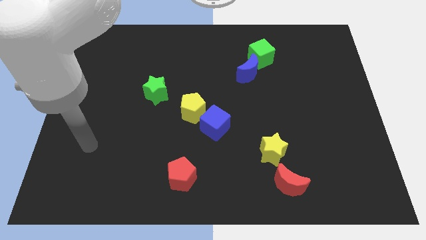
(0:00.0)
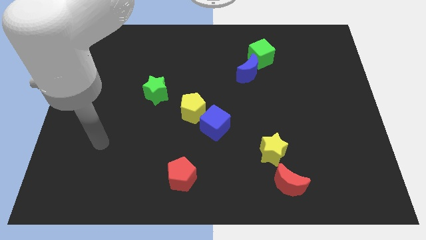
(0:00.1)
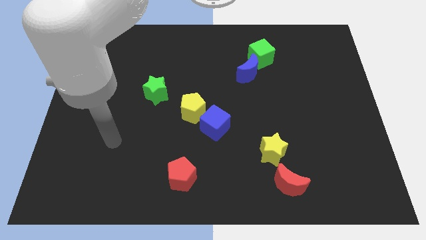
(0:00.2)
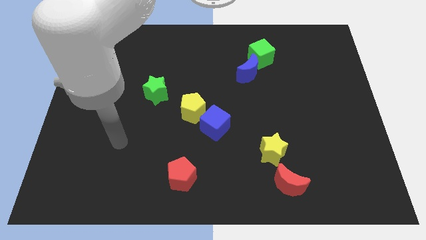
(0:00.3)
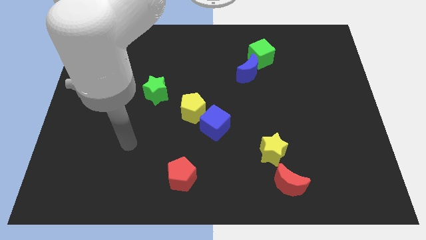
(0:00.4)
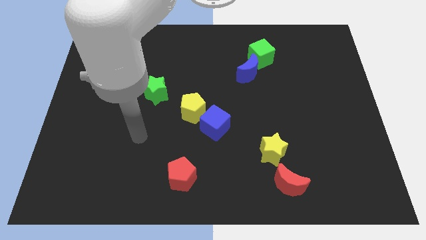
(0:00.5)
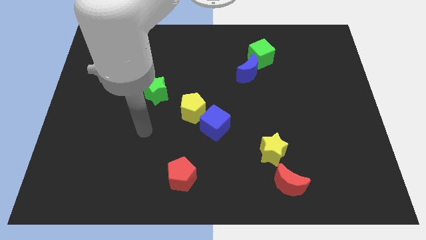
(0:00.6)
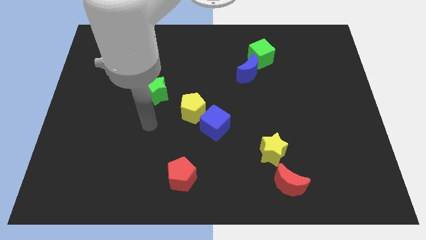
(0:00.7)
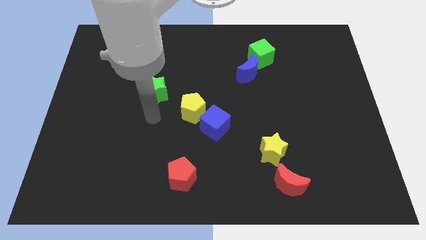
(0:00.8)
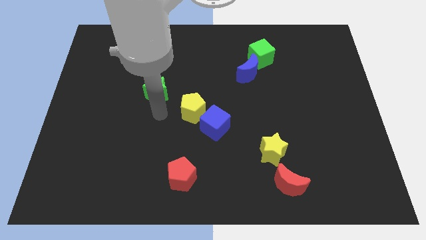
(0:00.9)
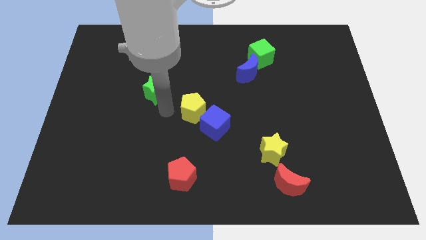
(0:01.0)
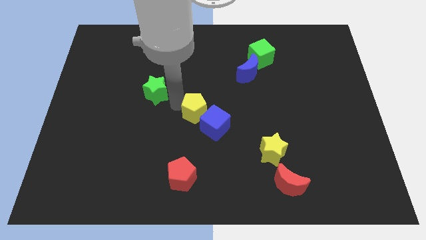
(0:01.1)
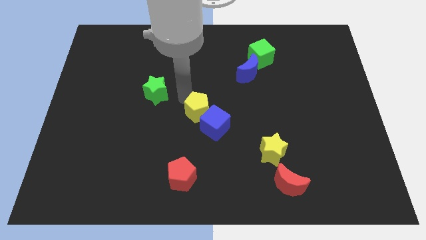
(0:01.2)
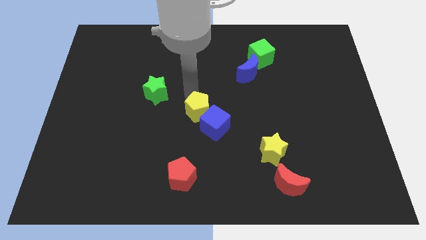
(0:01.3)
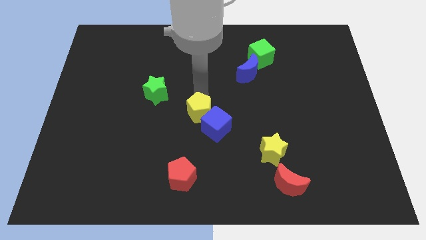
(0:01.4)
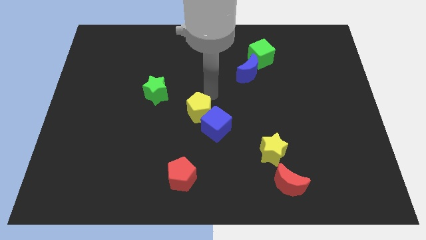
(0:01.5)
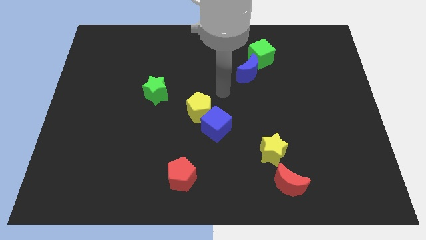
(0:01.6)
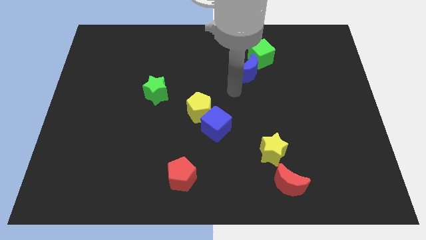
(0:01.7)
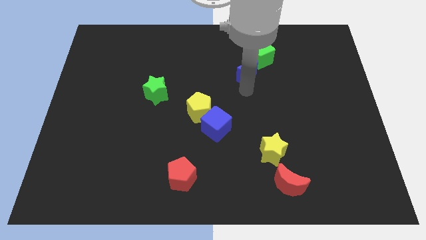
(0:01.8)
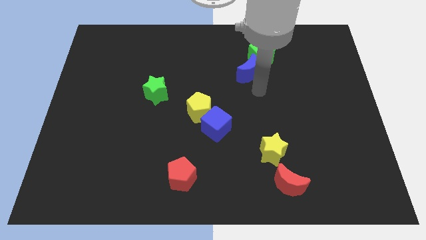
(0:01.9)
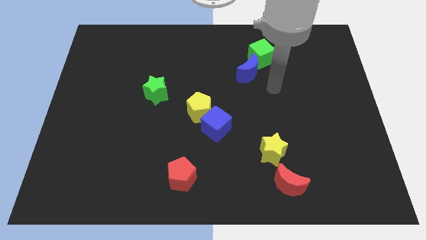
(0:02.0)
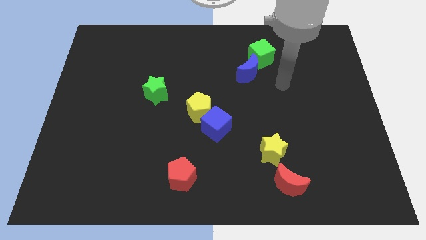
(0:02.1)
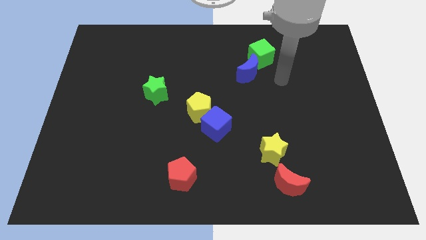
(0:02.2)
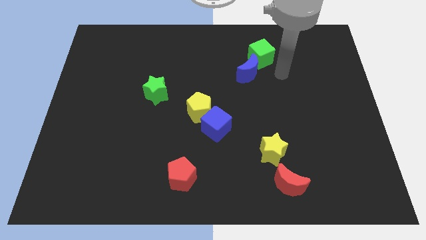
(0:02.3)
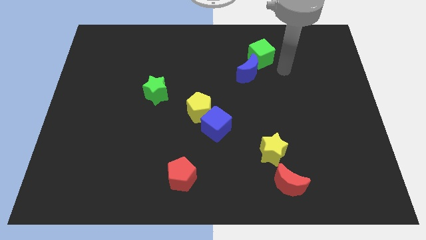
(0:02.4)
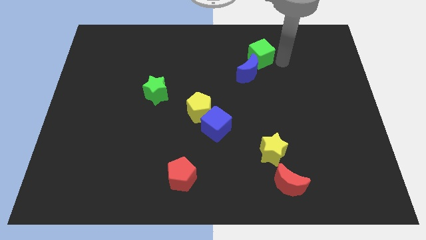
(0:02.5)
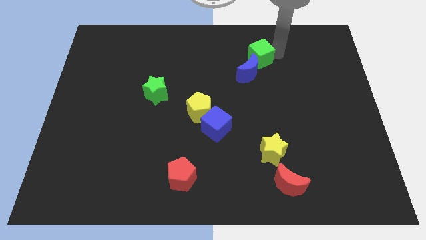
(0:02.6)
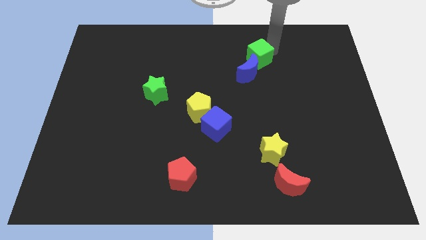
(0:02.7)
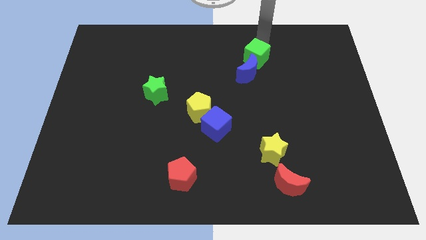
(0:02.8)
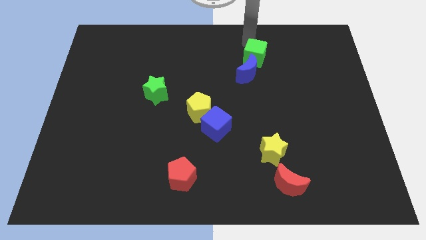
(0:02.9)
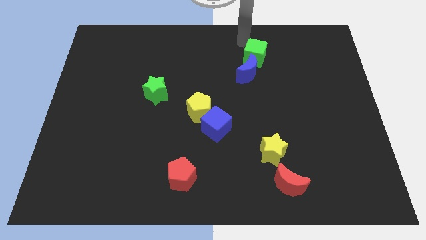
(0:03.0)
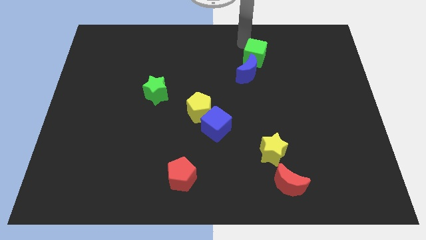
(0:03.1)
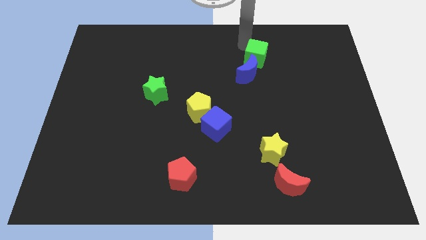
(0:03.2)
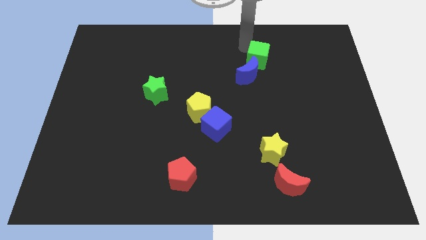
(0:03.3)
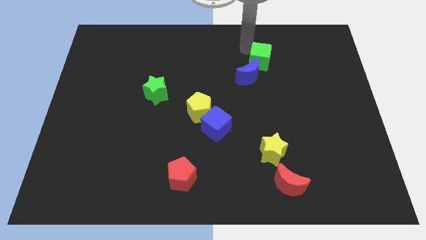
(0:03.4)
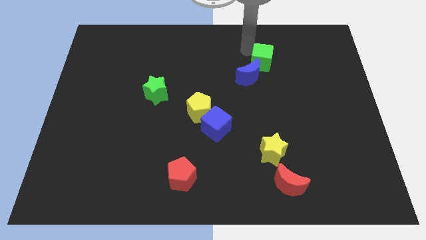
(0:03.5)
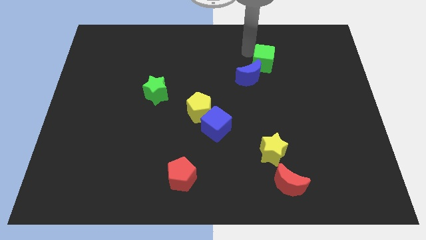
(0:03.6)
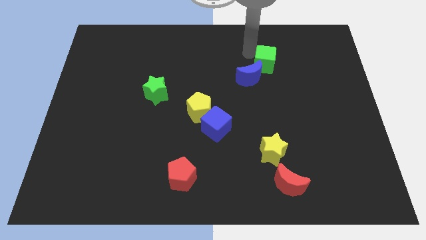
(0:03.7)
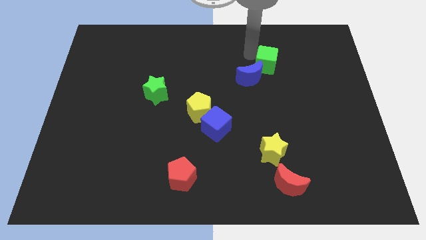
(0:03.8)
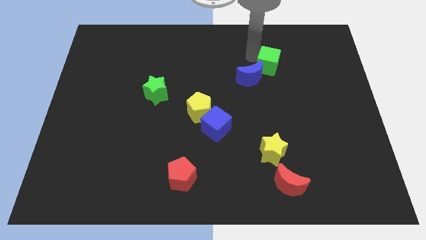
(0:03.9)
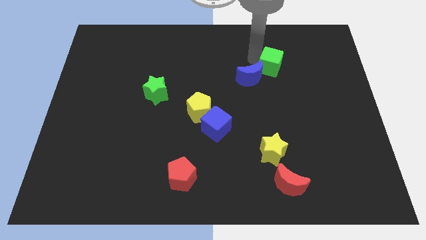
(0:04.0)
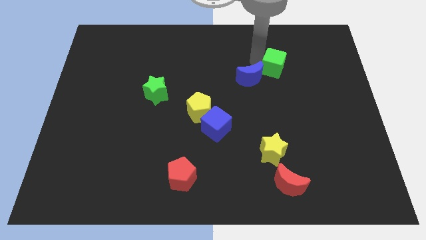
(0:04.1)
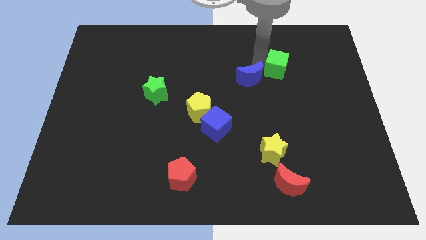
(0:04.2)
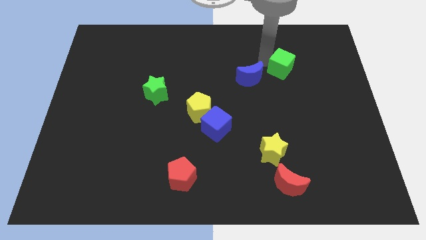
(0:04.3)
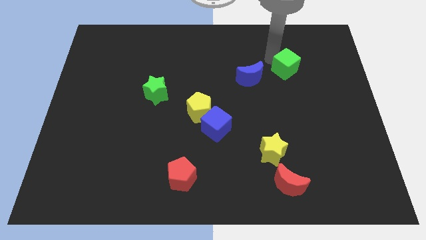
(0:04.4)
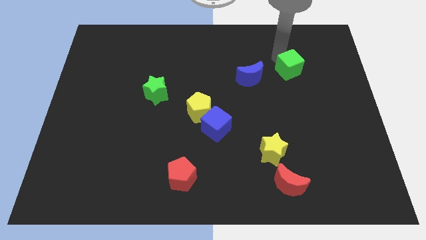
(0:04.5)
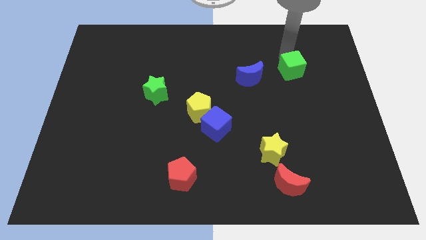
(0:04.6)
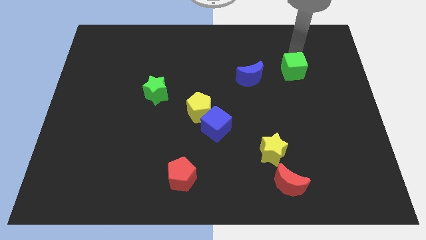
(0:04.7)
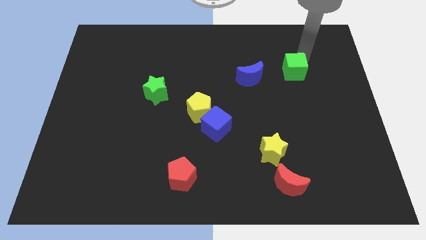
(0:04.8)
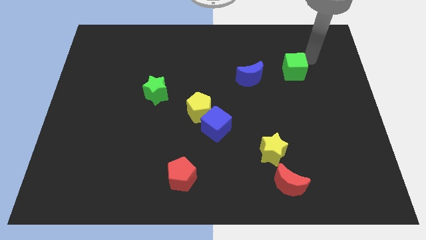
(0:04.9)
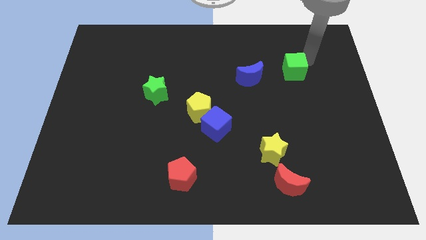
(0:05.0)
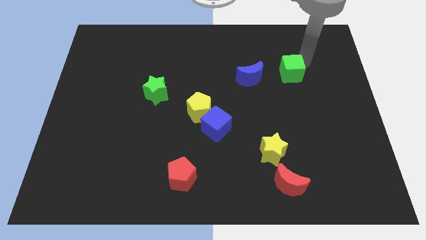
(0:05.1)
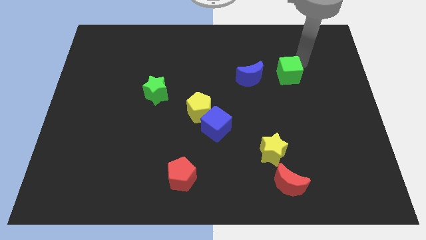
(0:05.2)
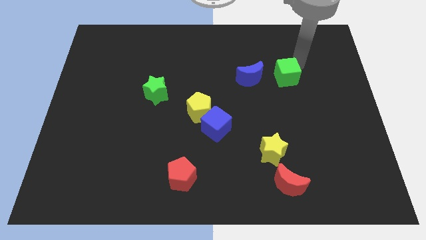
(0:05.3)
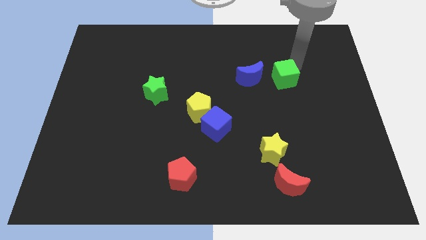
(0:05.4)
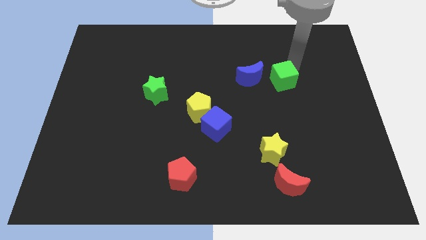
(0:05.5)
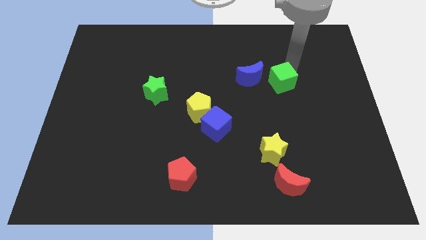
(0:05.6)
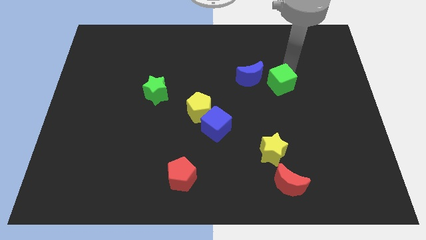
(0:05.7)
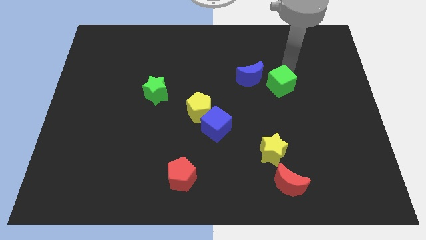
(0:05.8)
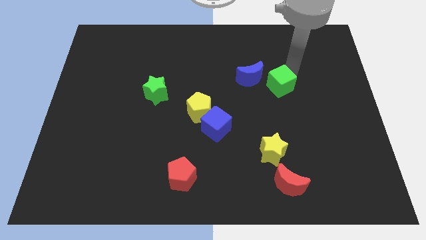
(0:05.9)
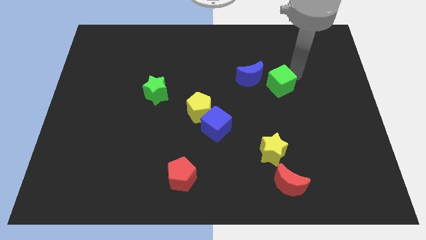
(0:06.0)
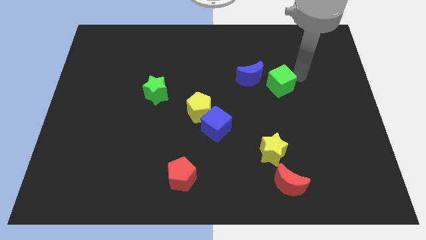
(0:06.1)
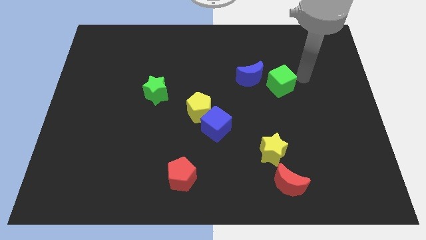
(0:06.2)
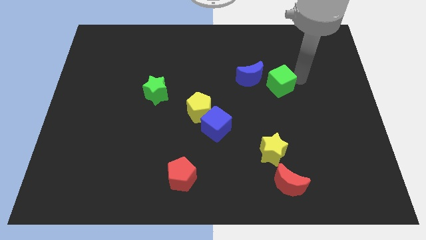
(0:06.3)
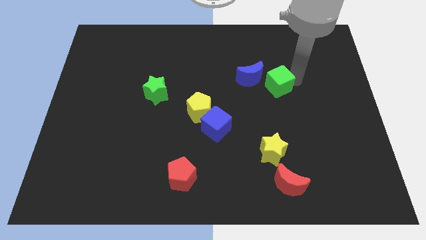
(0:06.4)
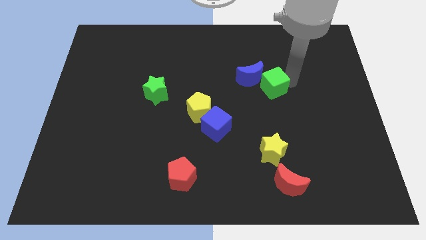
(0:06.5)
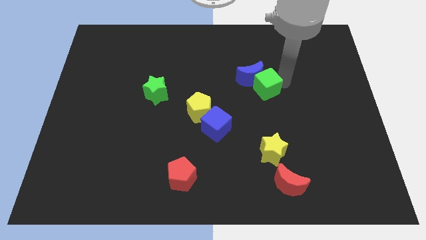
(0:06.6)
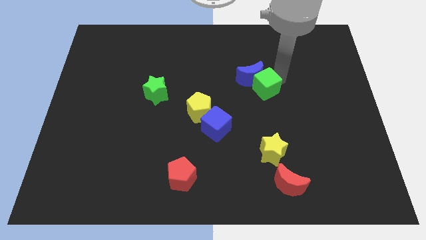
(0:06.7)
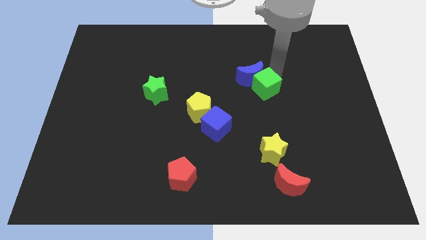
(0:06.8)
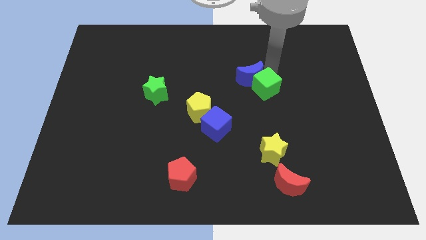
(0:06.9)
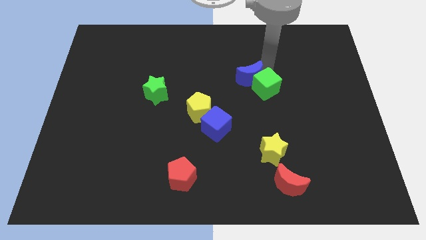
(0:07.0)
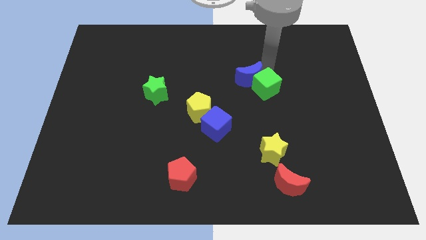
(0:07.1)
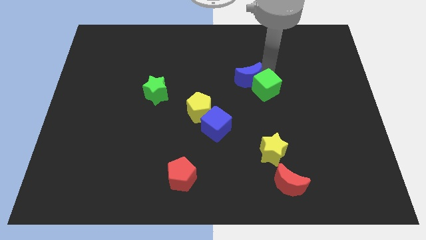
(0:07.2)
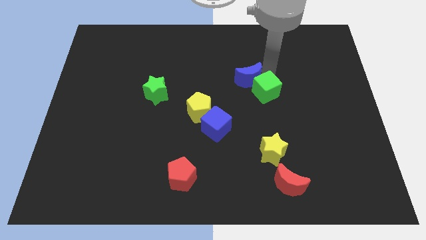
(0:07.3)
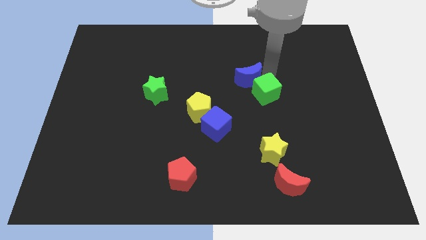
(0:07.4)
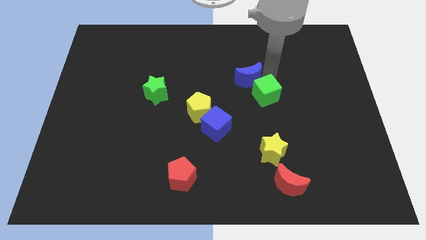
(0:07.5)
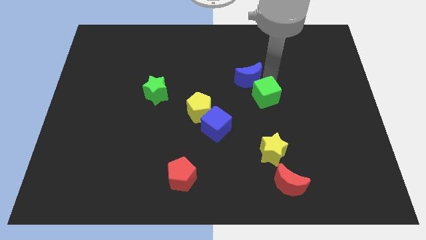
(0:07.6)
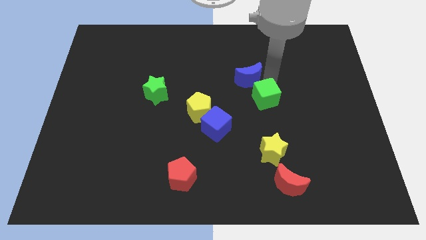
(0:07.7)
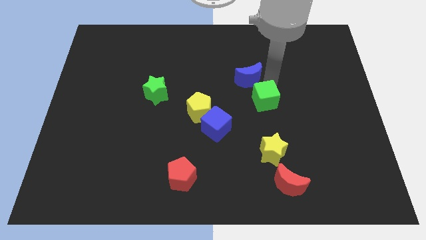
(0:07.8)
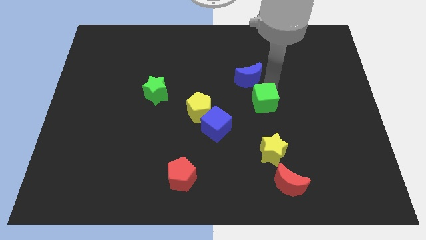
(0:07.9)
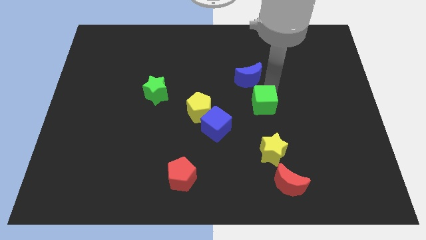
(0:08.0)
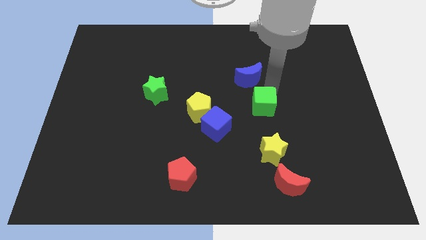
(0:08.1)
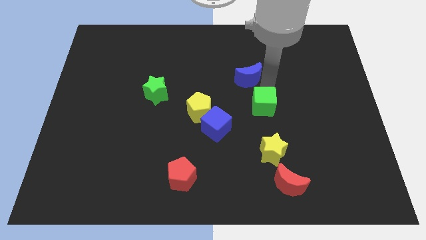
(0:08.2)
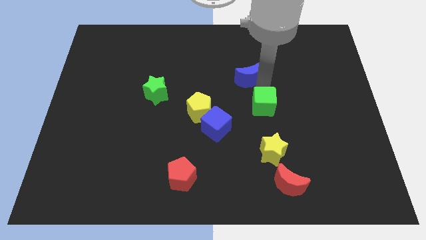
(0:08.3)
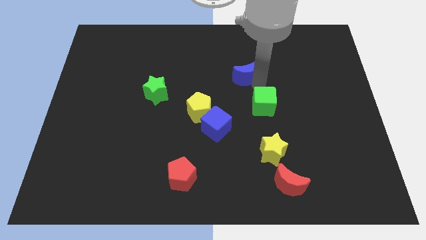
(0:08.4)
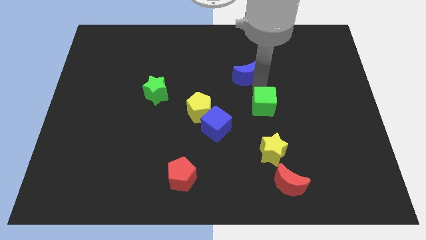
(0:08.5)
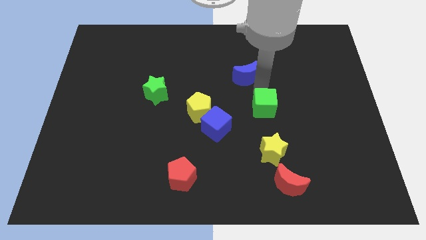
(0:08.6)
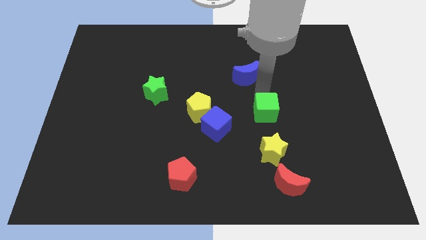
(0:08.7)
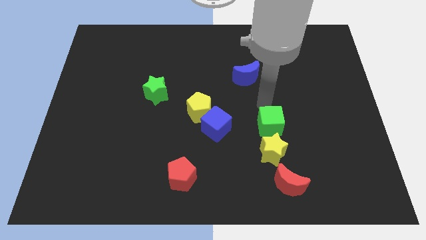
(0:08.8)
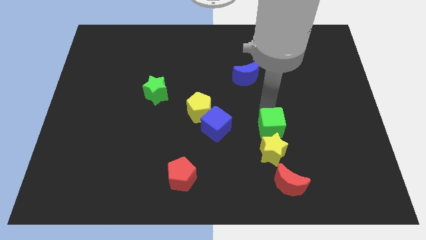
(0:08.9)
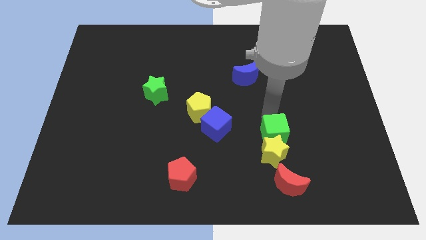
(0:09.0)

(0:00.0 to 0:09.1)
push the green cube towards the yellow star
